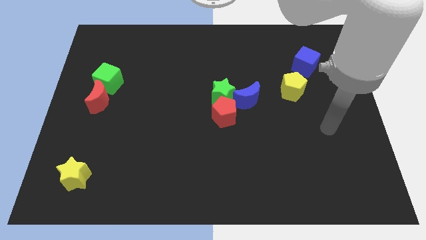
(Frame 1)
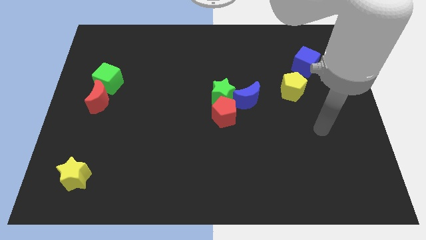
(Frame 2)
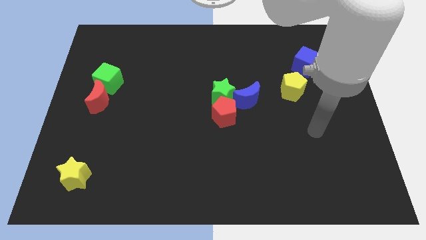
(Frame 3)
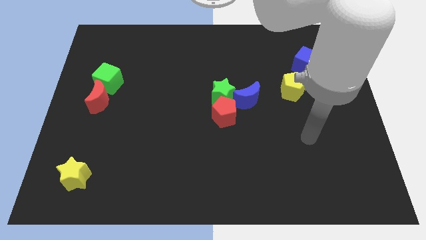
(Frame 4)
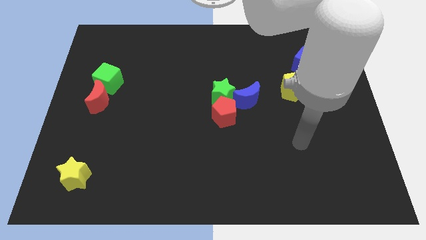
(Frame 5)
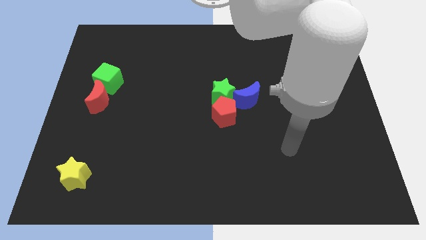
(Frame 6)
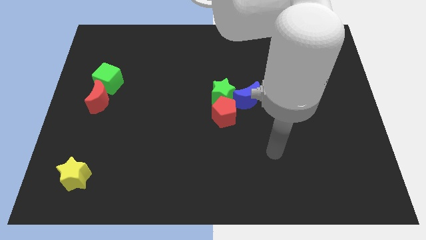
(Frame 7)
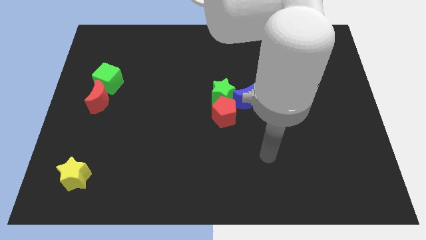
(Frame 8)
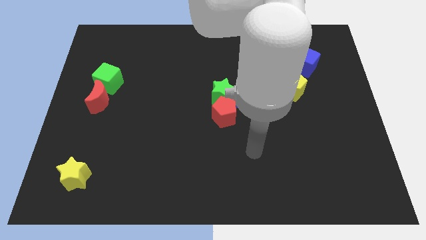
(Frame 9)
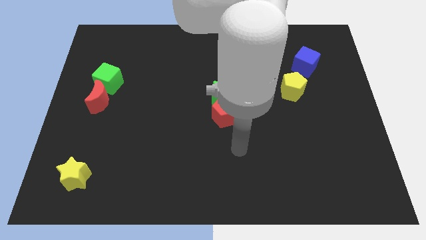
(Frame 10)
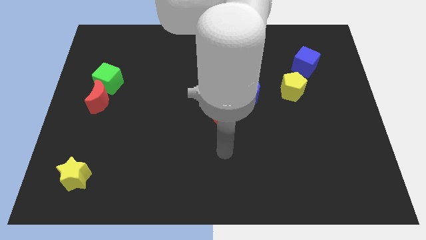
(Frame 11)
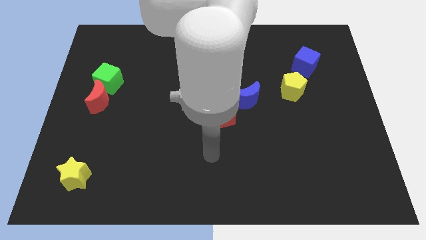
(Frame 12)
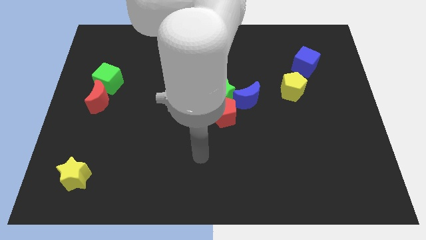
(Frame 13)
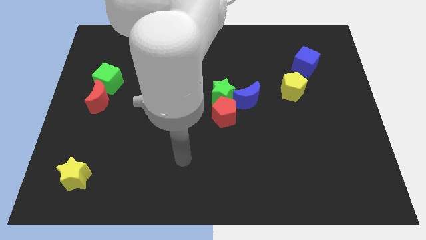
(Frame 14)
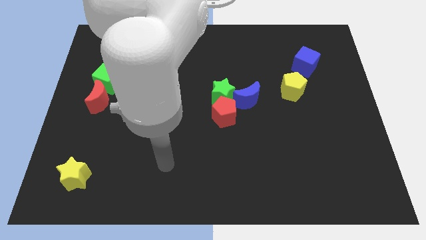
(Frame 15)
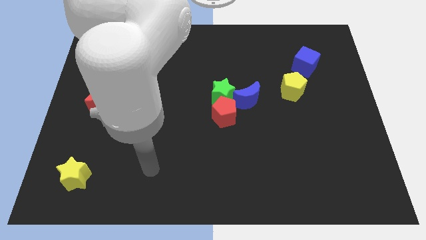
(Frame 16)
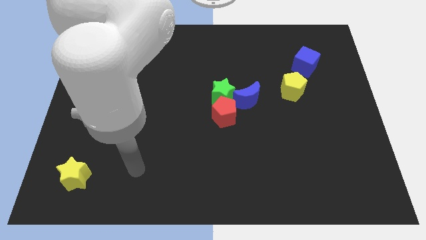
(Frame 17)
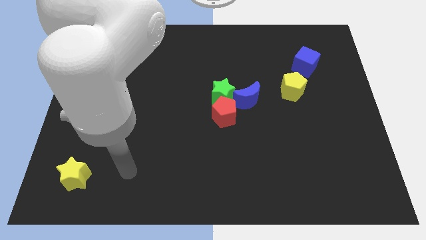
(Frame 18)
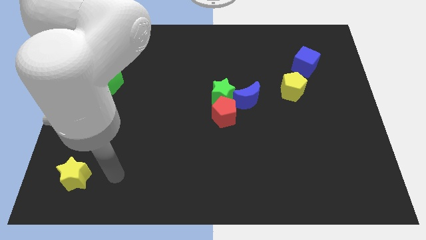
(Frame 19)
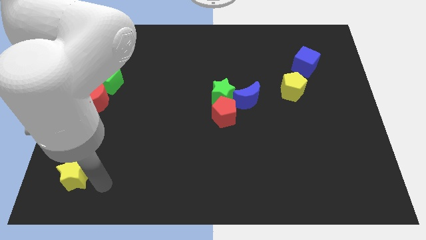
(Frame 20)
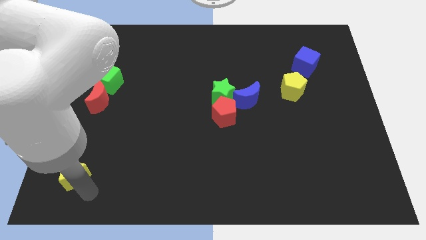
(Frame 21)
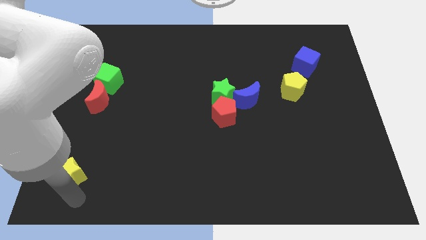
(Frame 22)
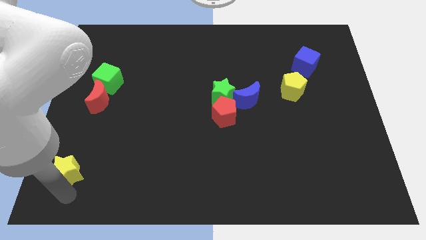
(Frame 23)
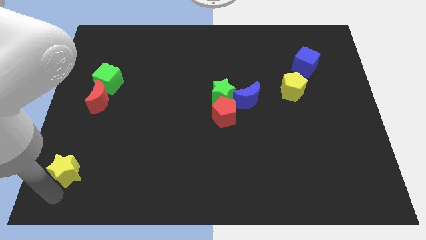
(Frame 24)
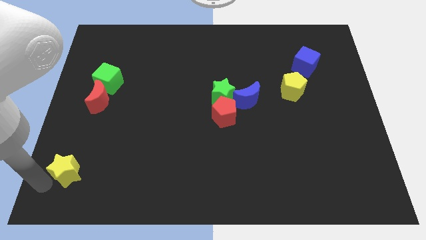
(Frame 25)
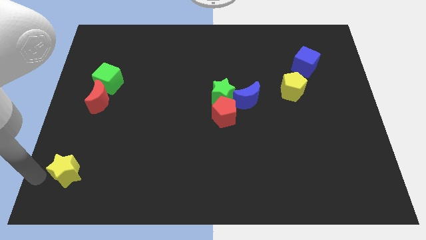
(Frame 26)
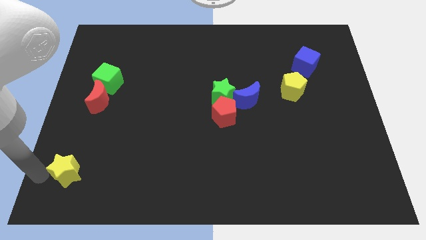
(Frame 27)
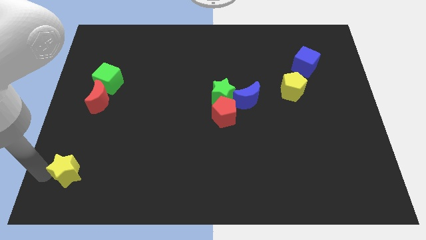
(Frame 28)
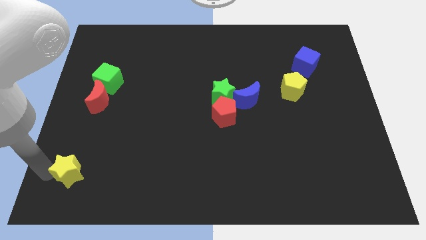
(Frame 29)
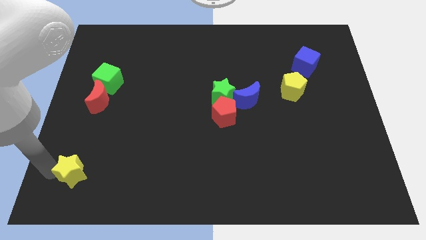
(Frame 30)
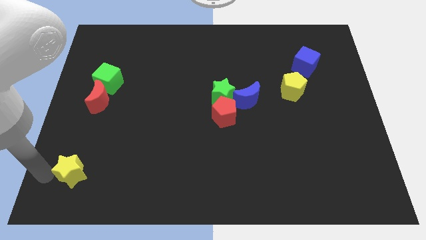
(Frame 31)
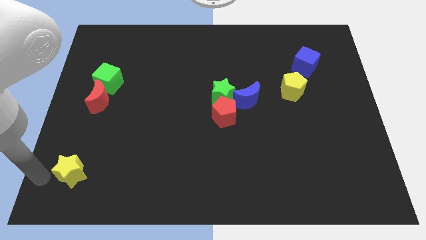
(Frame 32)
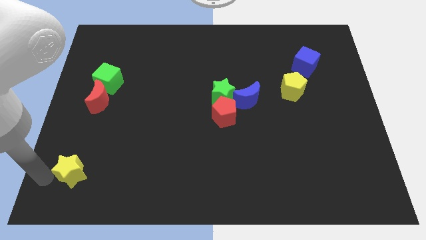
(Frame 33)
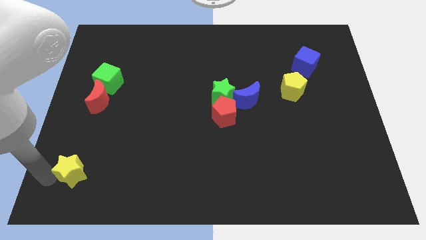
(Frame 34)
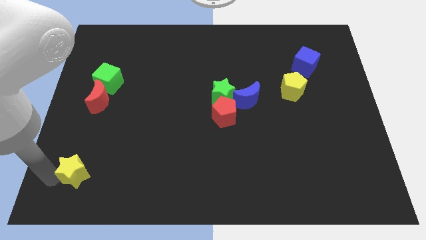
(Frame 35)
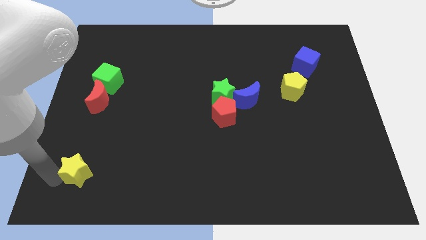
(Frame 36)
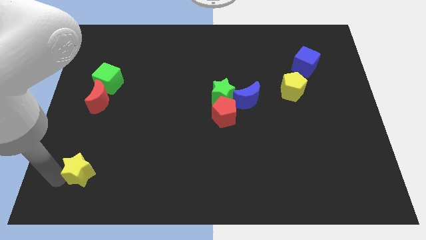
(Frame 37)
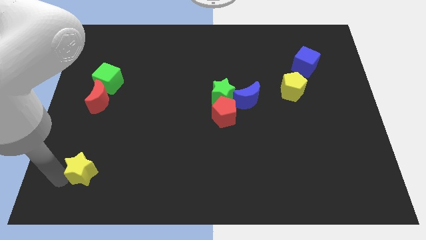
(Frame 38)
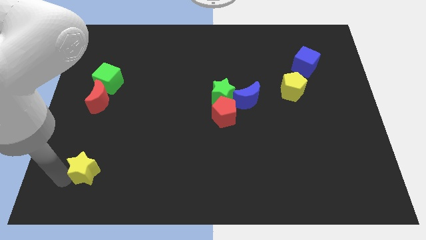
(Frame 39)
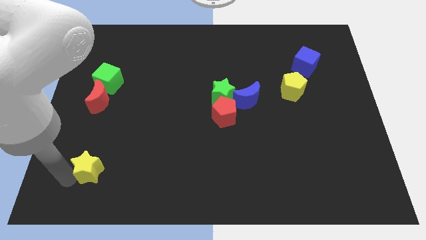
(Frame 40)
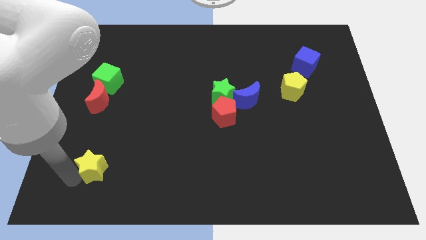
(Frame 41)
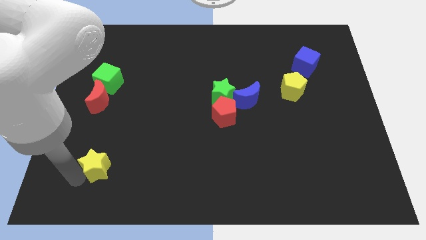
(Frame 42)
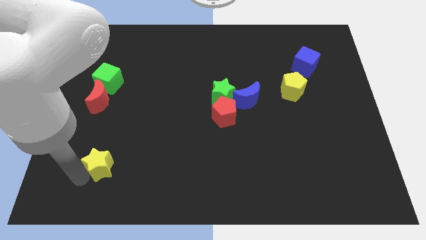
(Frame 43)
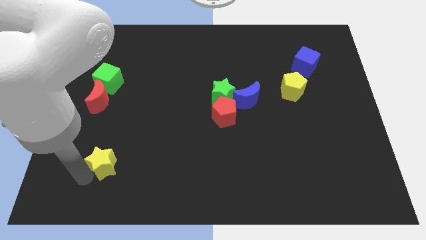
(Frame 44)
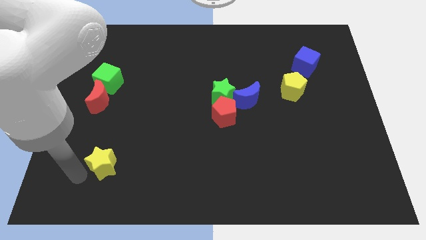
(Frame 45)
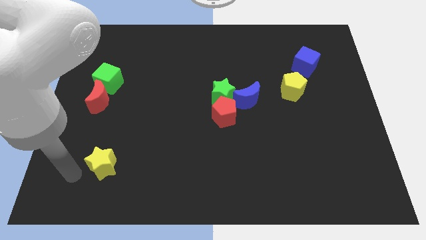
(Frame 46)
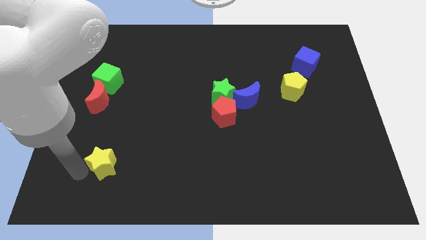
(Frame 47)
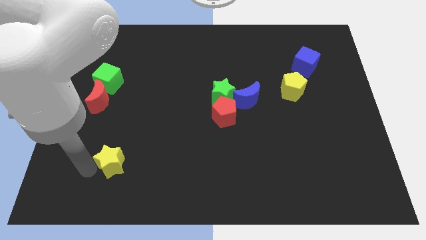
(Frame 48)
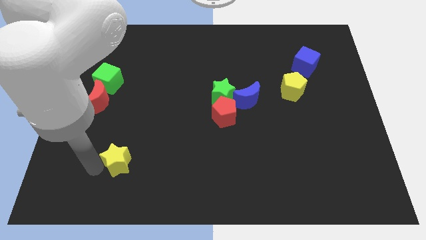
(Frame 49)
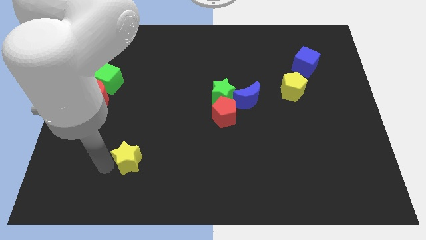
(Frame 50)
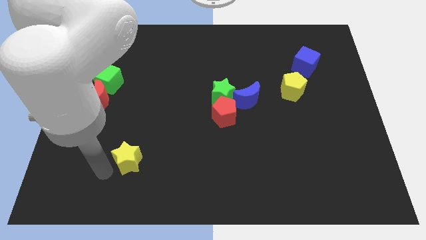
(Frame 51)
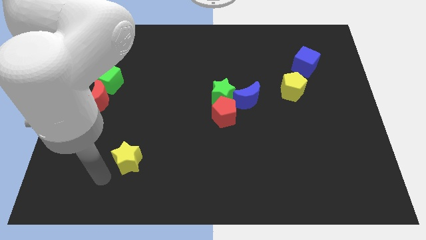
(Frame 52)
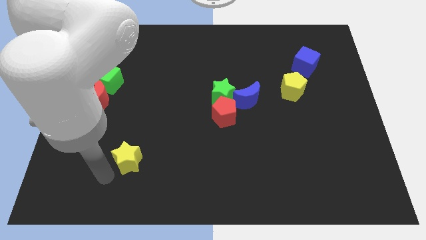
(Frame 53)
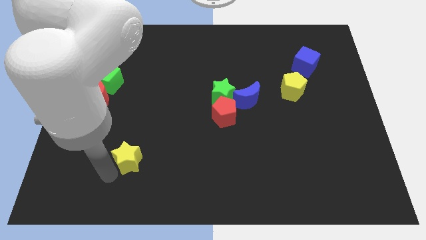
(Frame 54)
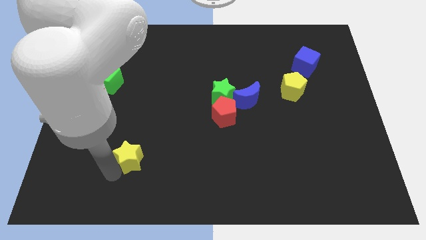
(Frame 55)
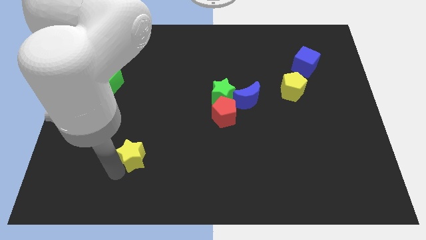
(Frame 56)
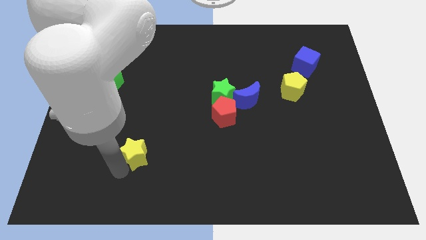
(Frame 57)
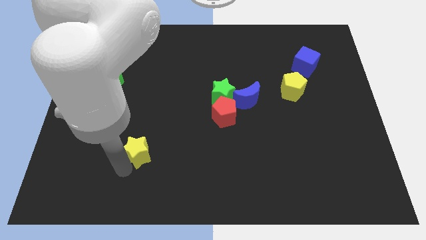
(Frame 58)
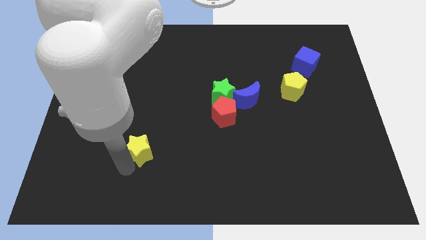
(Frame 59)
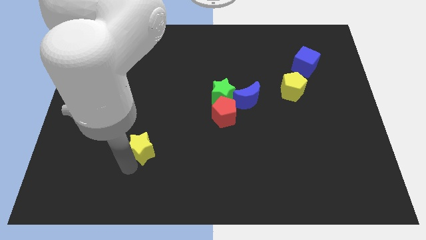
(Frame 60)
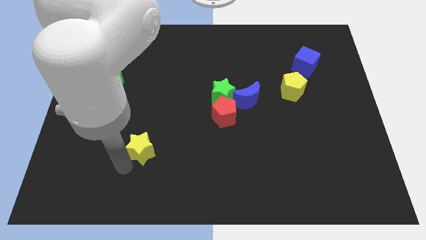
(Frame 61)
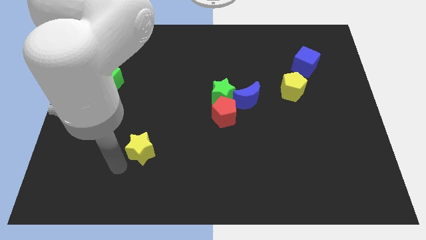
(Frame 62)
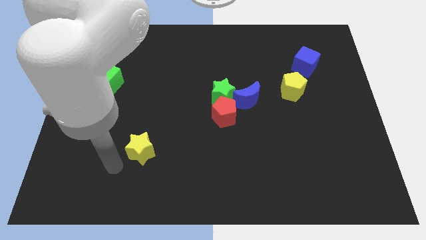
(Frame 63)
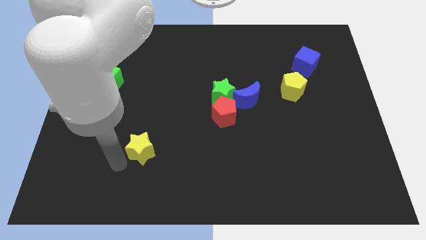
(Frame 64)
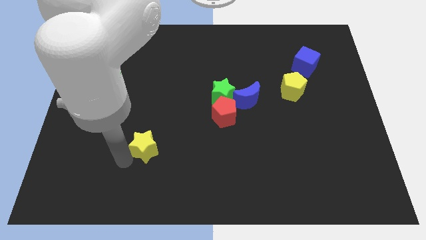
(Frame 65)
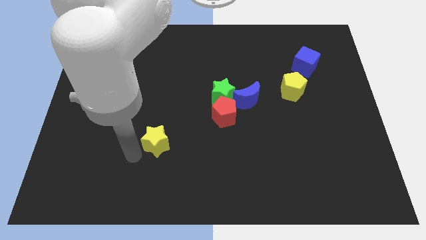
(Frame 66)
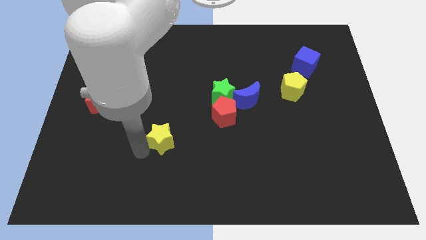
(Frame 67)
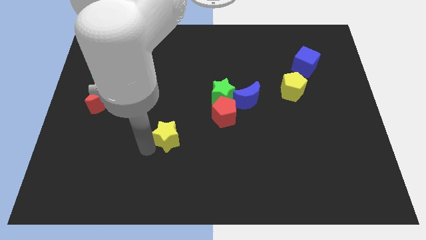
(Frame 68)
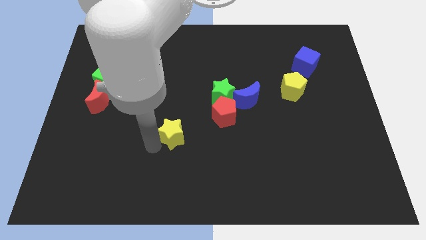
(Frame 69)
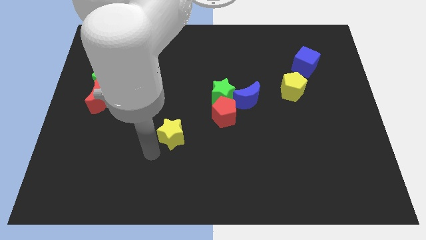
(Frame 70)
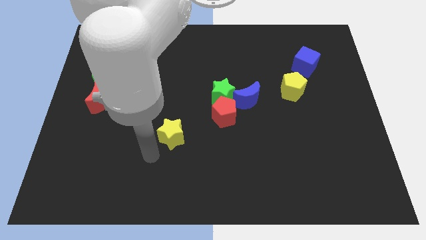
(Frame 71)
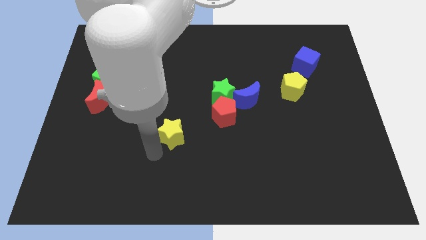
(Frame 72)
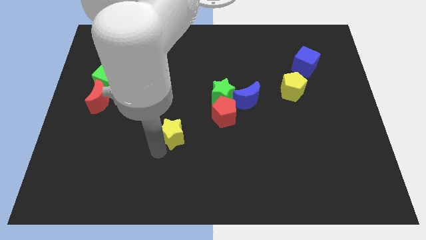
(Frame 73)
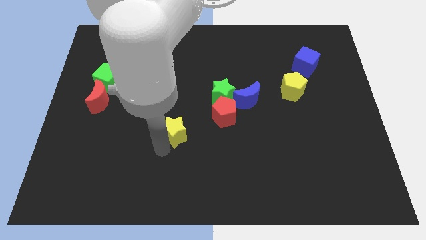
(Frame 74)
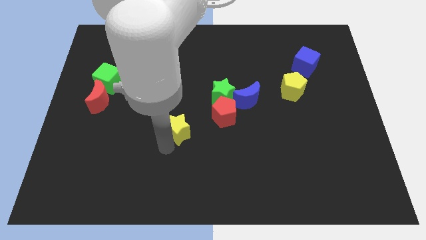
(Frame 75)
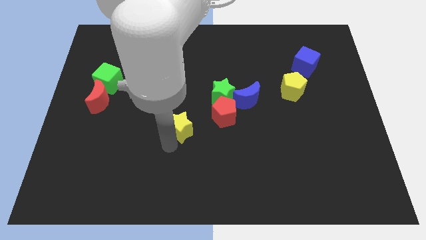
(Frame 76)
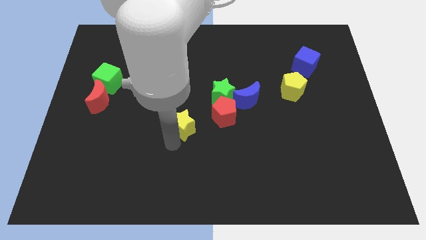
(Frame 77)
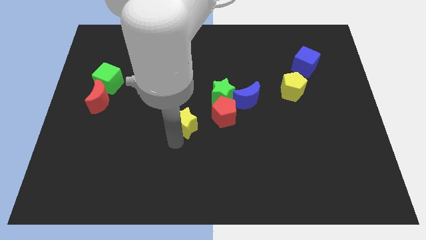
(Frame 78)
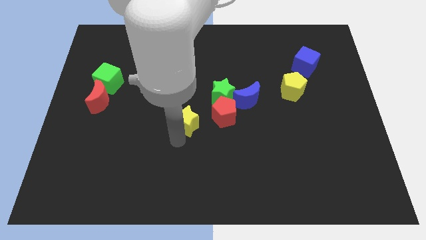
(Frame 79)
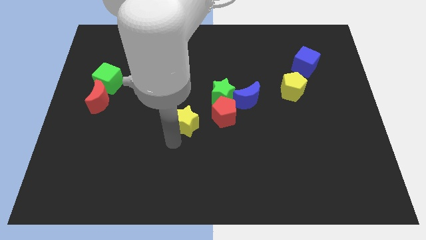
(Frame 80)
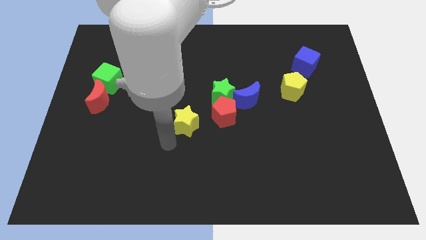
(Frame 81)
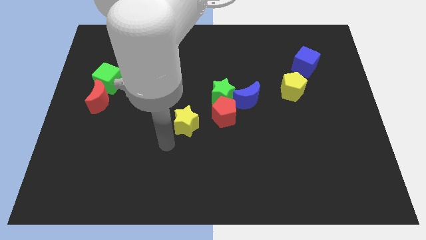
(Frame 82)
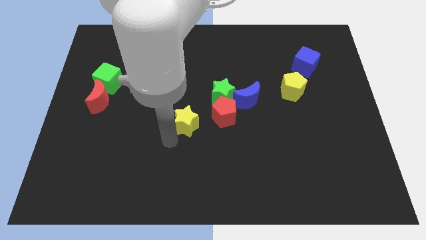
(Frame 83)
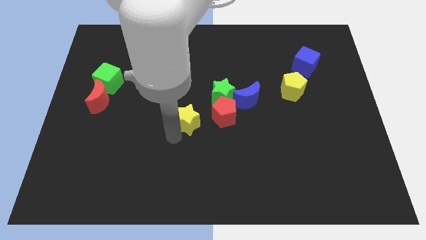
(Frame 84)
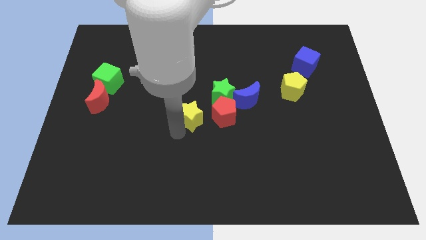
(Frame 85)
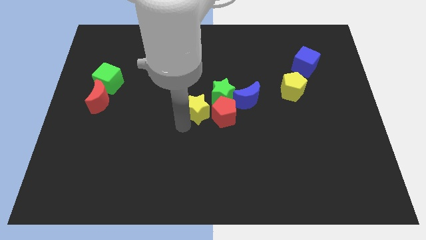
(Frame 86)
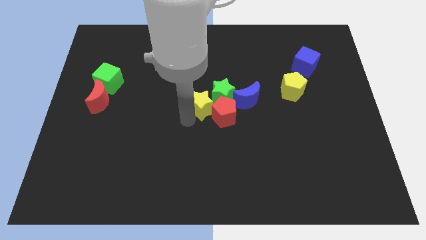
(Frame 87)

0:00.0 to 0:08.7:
put the yellow star next to the green star
